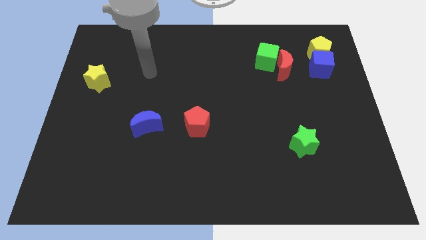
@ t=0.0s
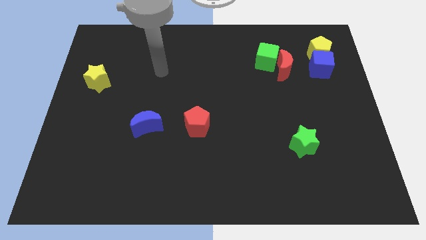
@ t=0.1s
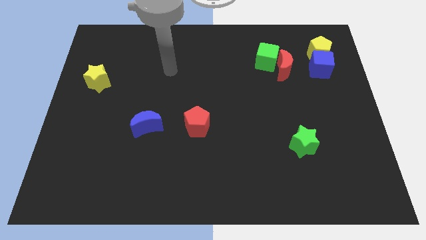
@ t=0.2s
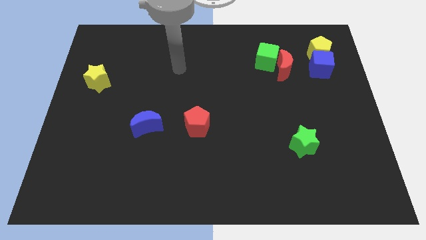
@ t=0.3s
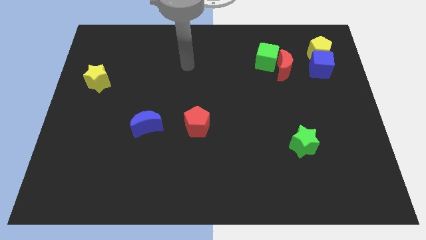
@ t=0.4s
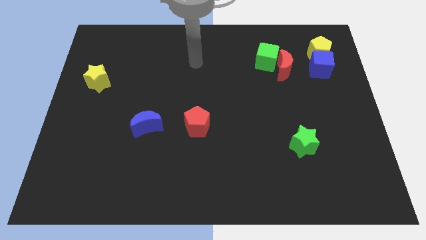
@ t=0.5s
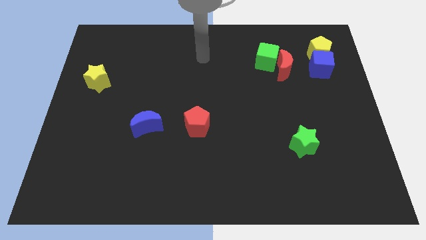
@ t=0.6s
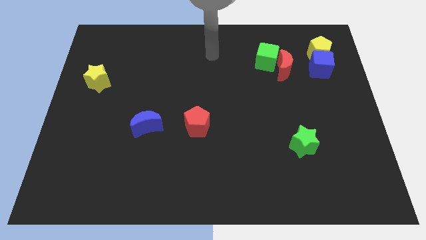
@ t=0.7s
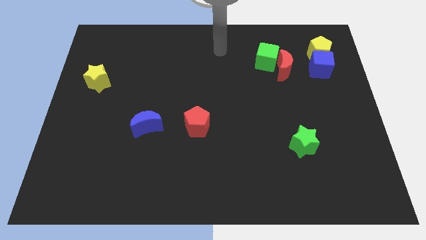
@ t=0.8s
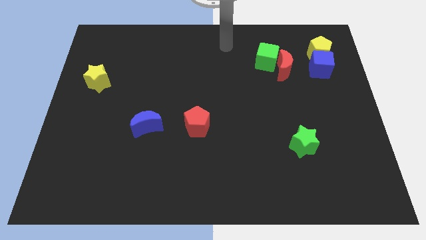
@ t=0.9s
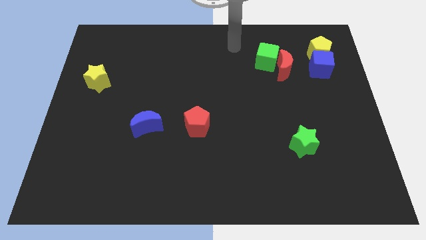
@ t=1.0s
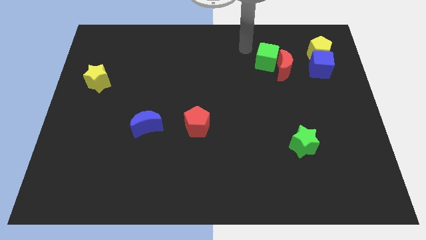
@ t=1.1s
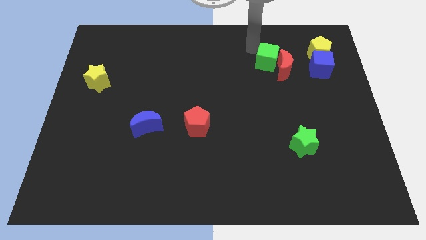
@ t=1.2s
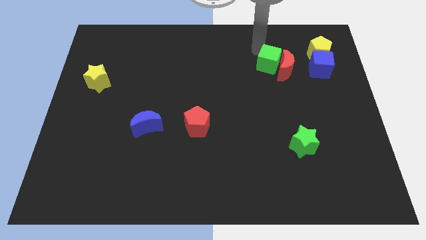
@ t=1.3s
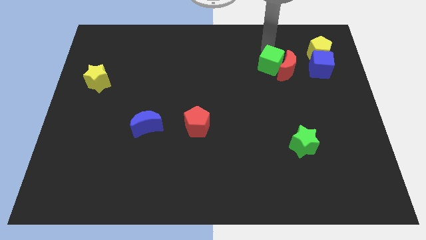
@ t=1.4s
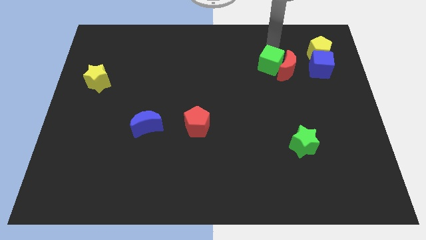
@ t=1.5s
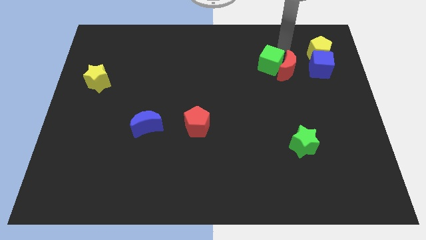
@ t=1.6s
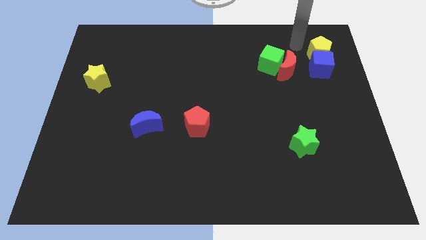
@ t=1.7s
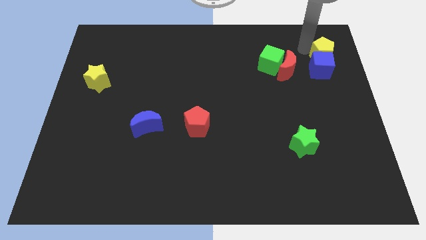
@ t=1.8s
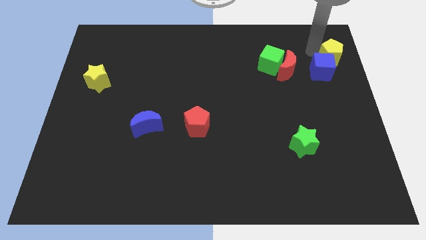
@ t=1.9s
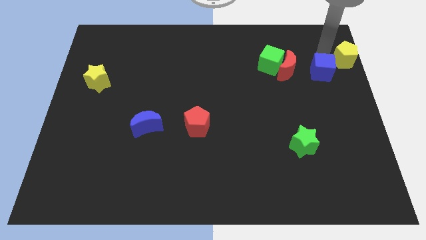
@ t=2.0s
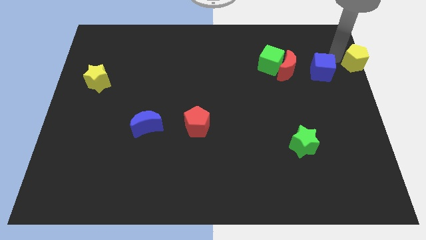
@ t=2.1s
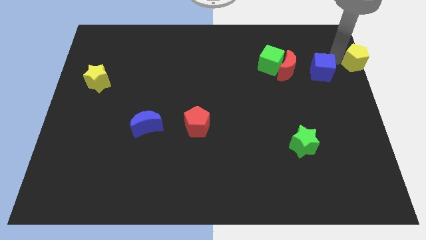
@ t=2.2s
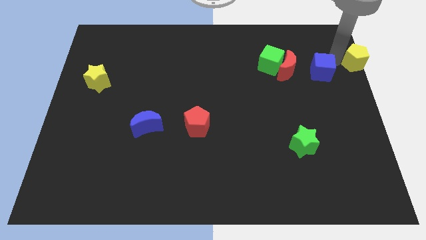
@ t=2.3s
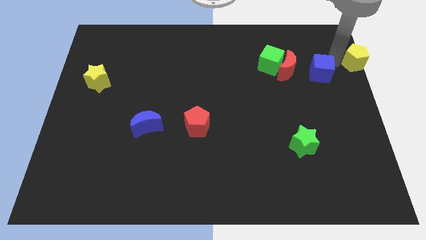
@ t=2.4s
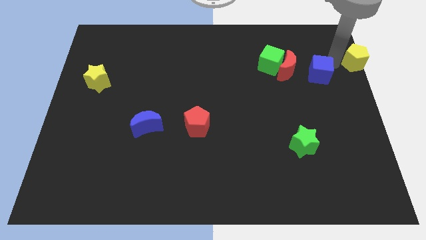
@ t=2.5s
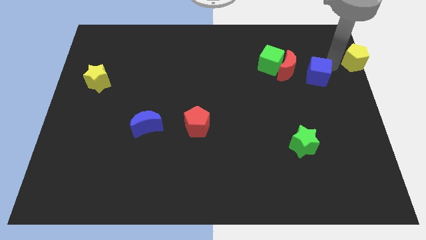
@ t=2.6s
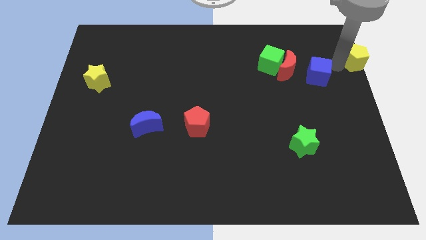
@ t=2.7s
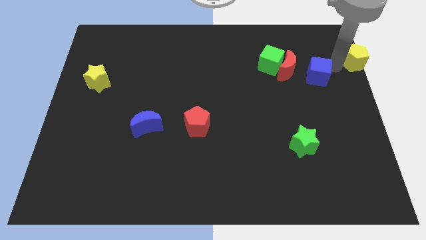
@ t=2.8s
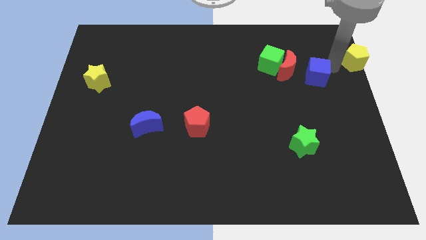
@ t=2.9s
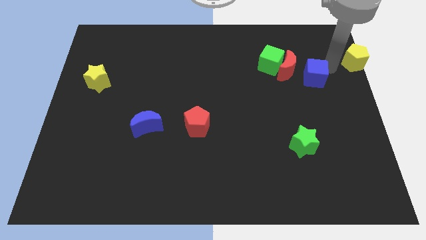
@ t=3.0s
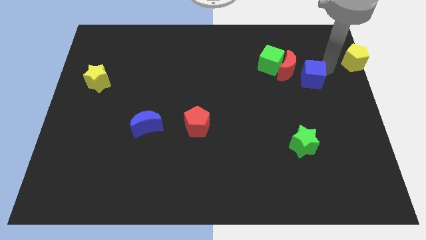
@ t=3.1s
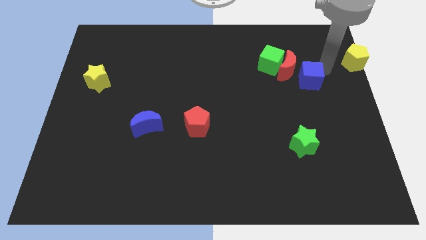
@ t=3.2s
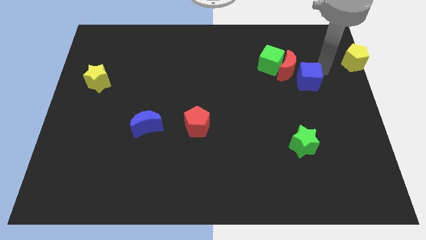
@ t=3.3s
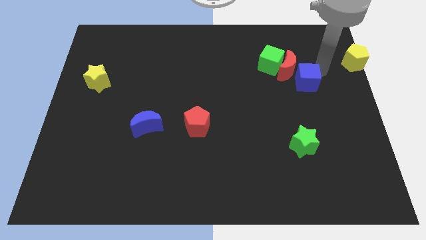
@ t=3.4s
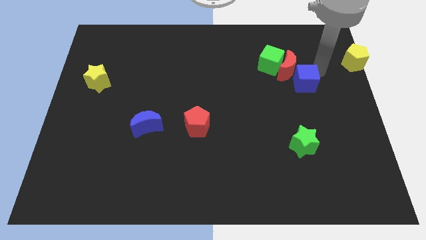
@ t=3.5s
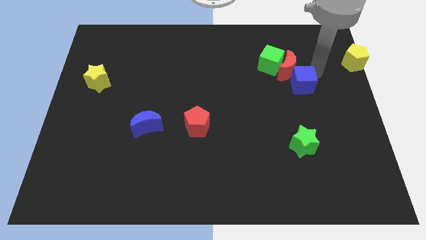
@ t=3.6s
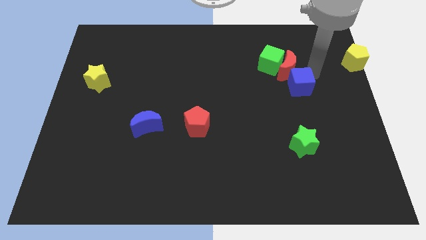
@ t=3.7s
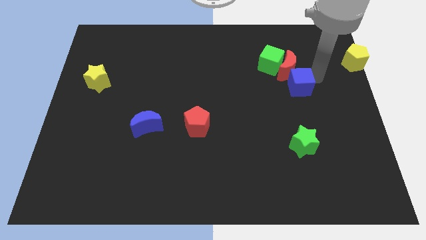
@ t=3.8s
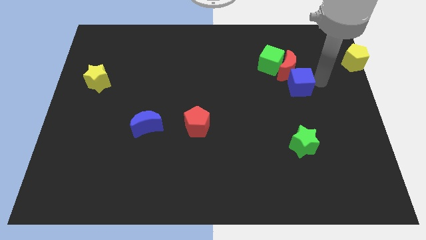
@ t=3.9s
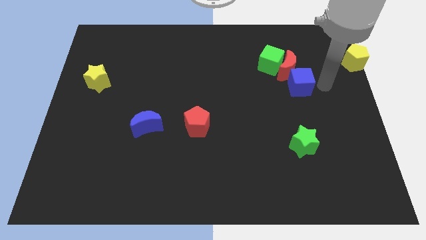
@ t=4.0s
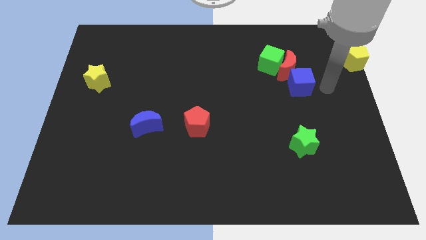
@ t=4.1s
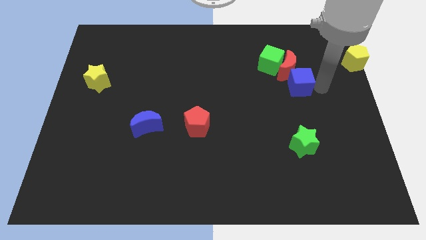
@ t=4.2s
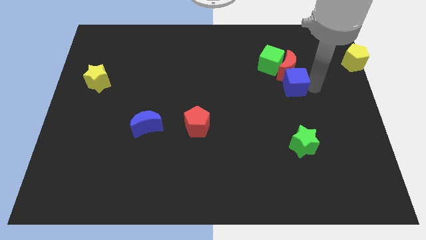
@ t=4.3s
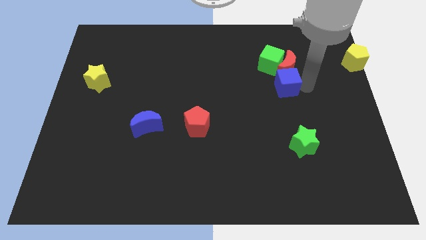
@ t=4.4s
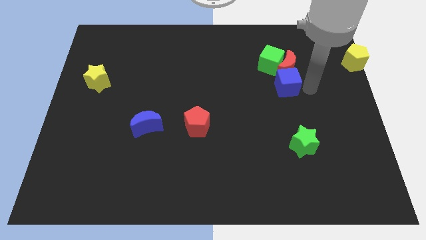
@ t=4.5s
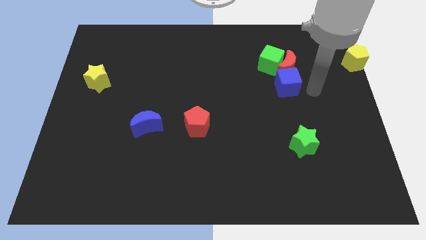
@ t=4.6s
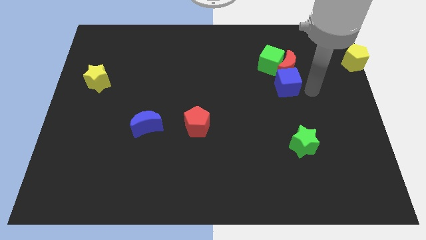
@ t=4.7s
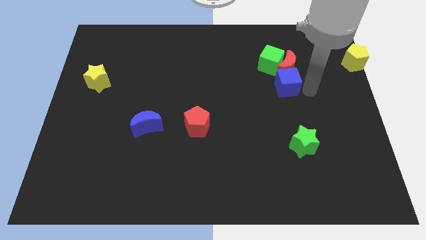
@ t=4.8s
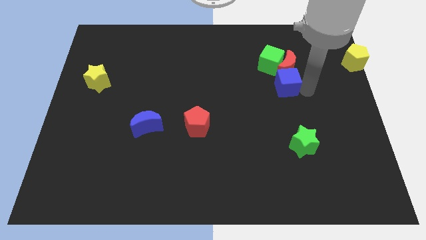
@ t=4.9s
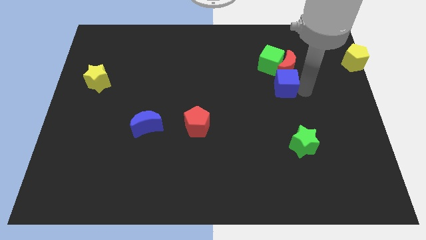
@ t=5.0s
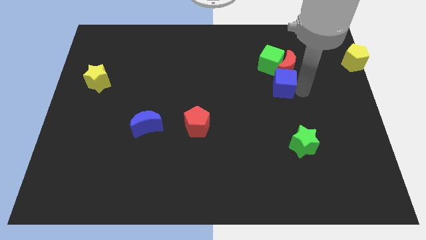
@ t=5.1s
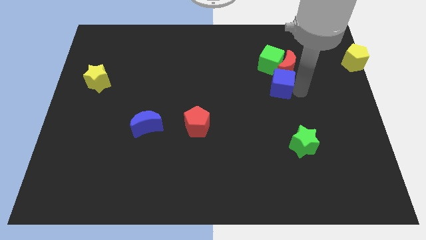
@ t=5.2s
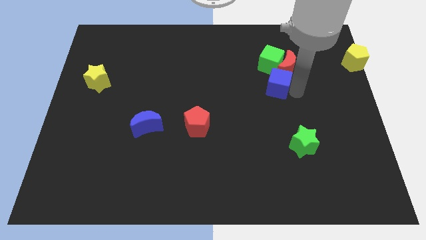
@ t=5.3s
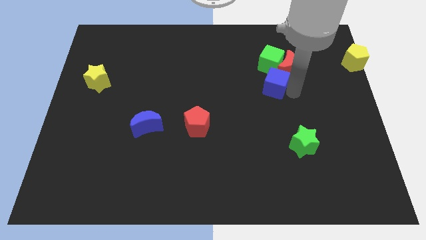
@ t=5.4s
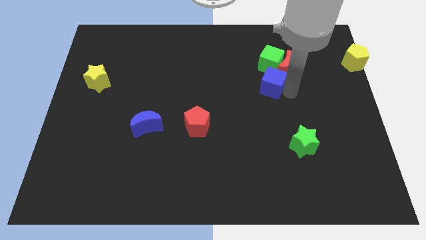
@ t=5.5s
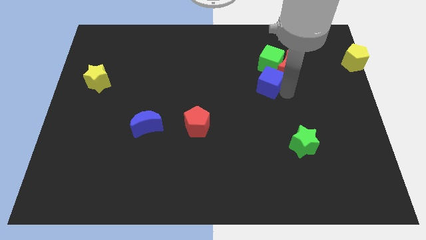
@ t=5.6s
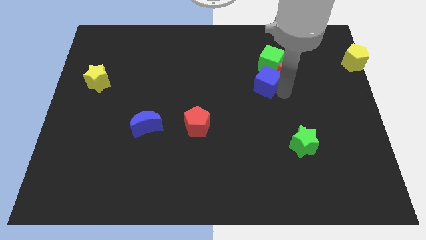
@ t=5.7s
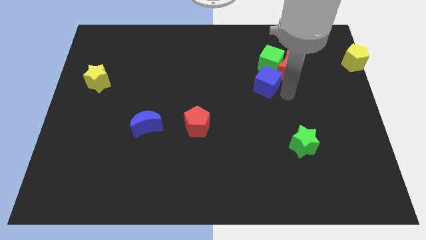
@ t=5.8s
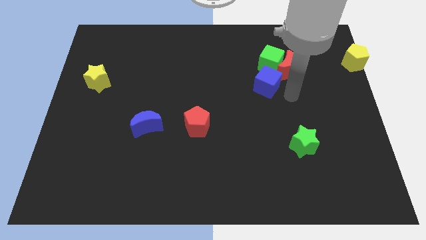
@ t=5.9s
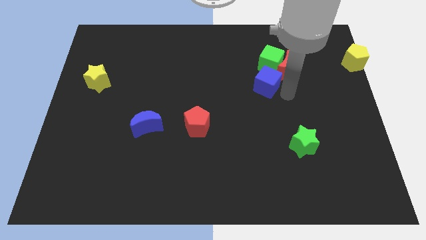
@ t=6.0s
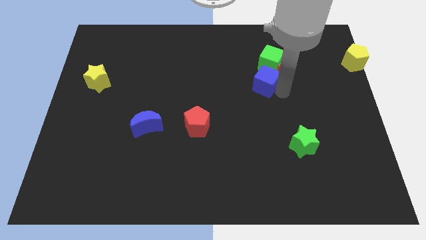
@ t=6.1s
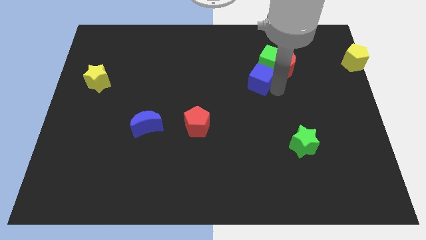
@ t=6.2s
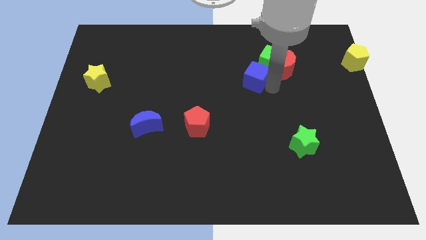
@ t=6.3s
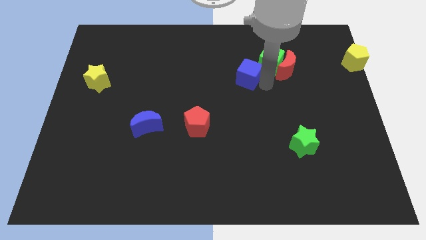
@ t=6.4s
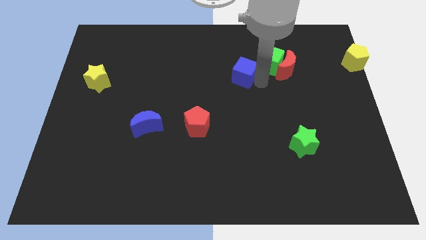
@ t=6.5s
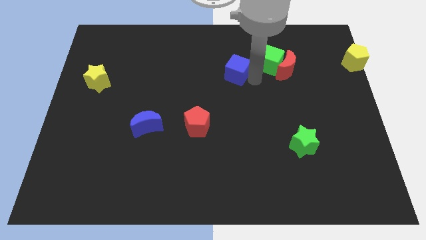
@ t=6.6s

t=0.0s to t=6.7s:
push the blue cube to the left

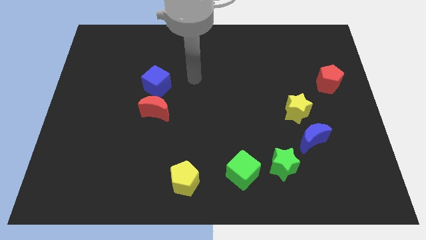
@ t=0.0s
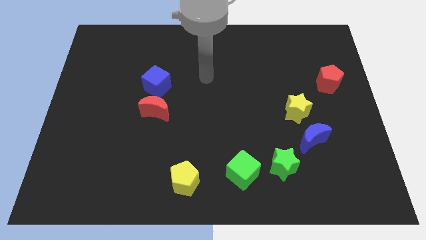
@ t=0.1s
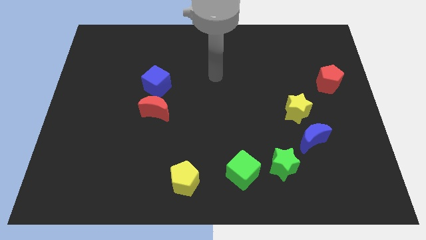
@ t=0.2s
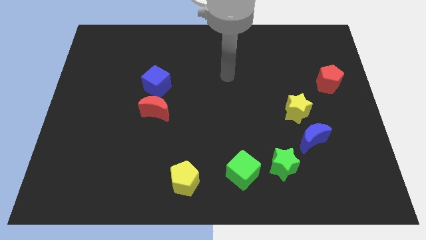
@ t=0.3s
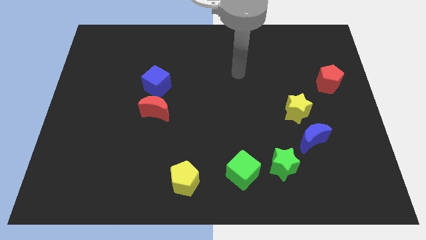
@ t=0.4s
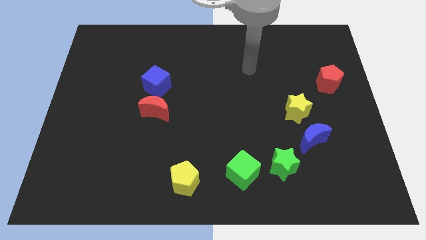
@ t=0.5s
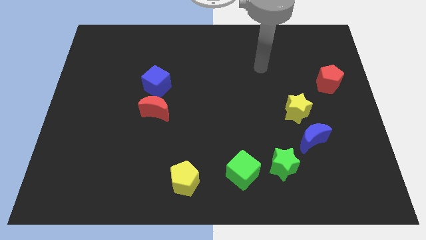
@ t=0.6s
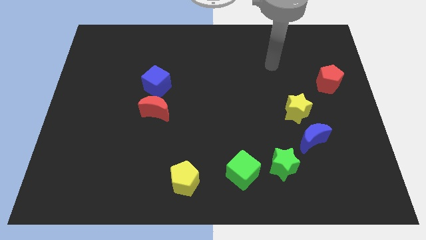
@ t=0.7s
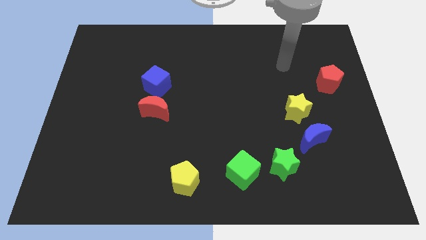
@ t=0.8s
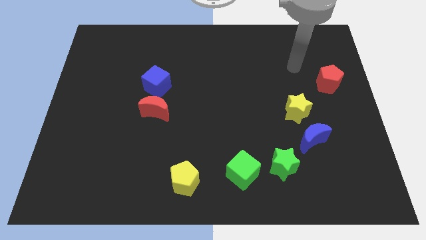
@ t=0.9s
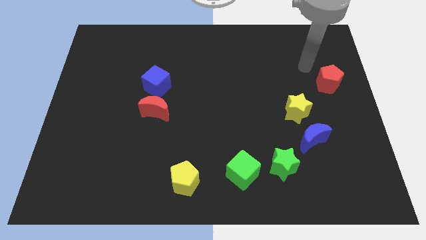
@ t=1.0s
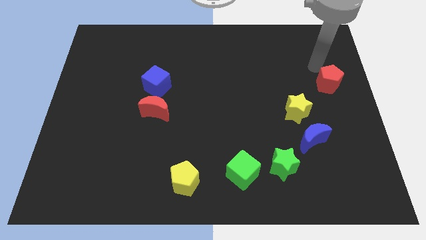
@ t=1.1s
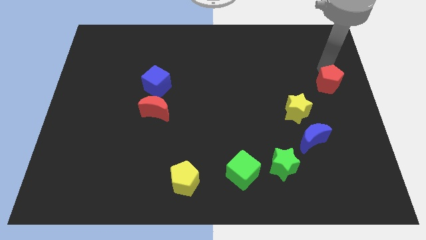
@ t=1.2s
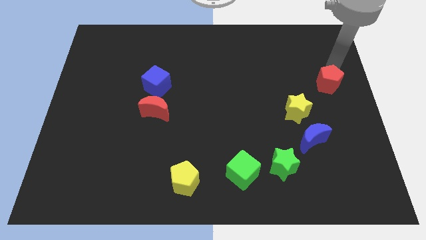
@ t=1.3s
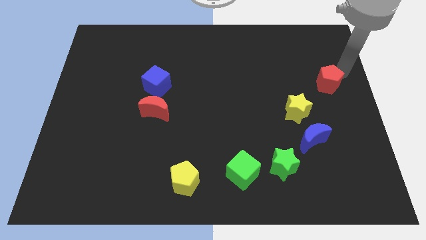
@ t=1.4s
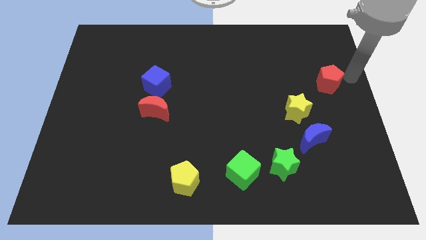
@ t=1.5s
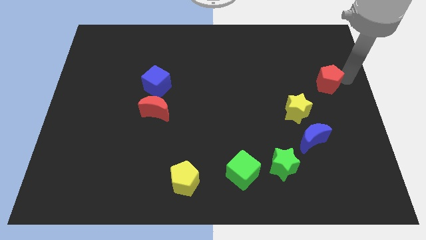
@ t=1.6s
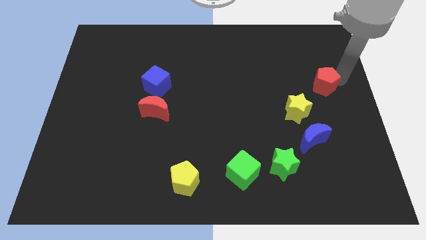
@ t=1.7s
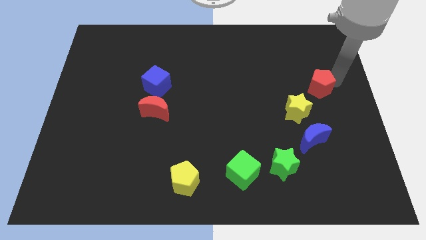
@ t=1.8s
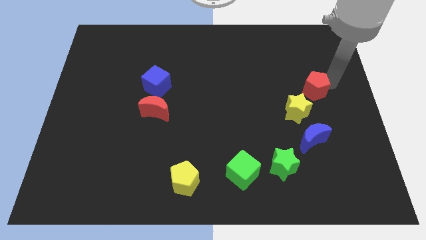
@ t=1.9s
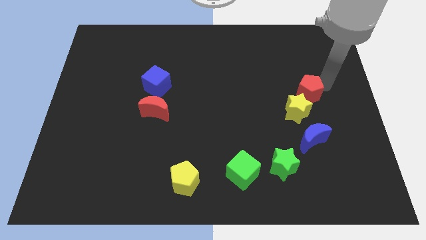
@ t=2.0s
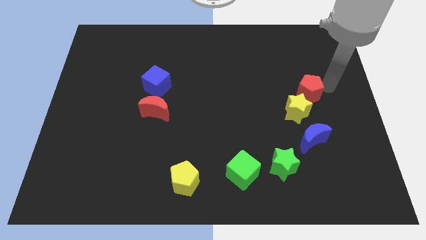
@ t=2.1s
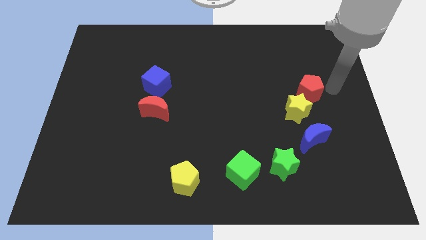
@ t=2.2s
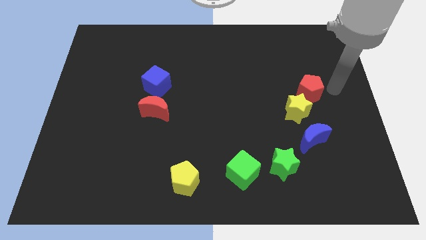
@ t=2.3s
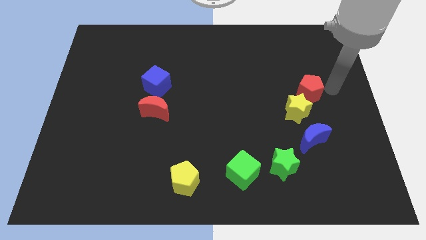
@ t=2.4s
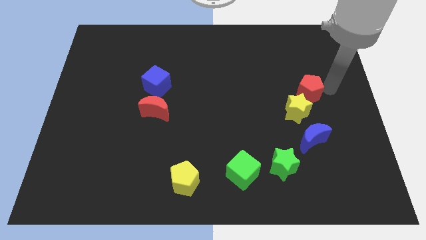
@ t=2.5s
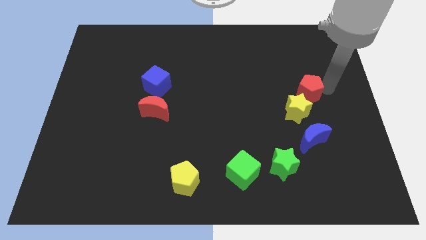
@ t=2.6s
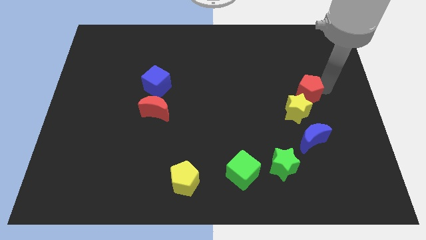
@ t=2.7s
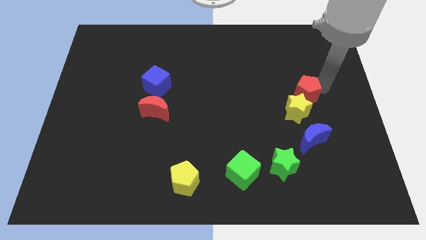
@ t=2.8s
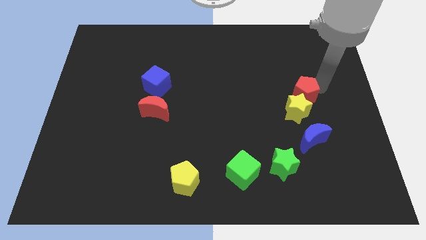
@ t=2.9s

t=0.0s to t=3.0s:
slightly move the red pentagon diagonally down and to the left
